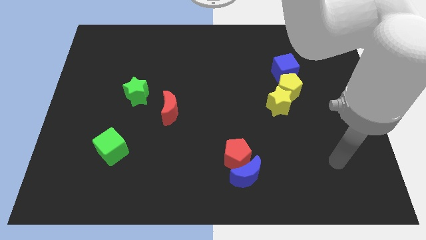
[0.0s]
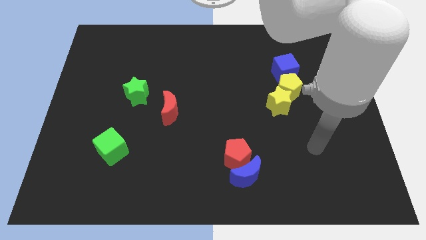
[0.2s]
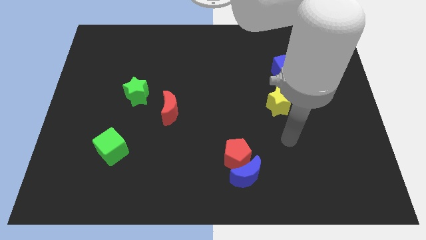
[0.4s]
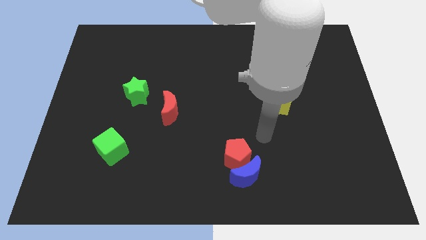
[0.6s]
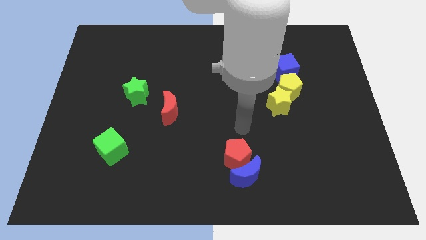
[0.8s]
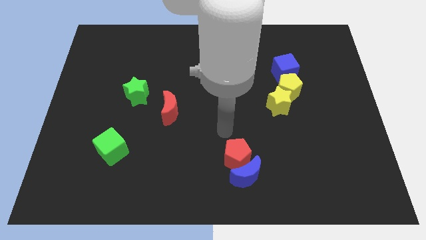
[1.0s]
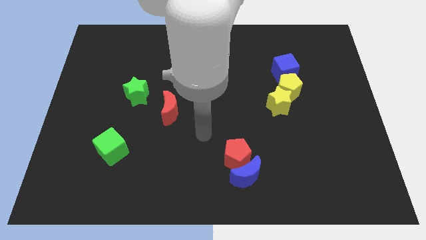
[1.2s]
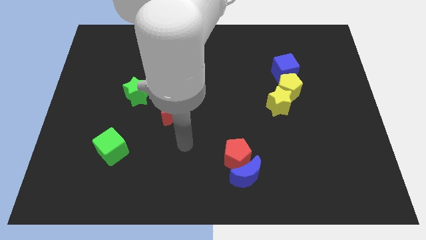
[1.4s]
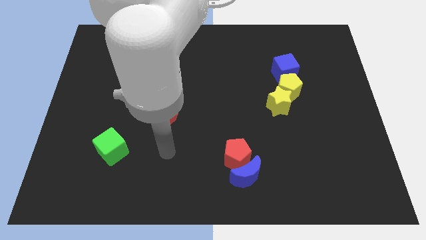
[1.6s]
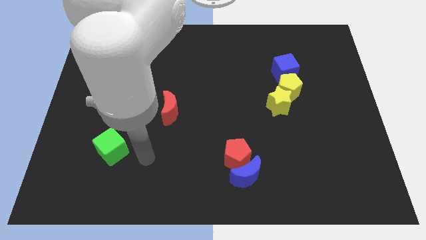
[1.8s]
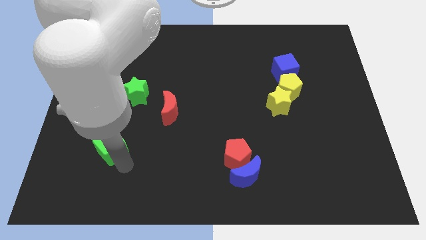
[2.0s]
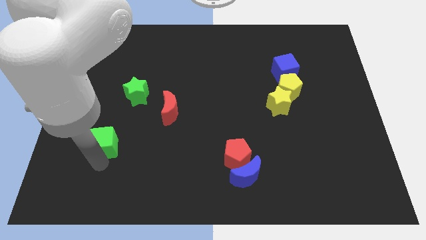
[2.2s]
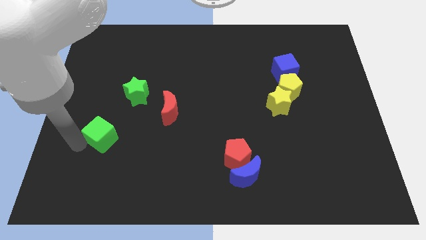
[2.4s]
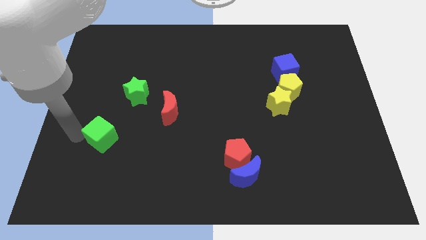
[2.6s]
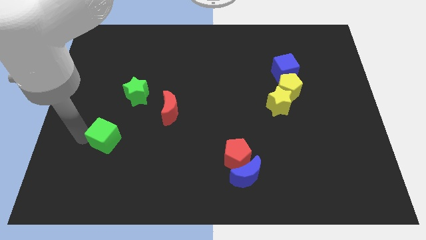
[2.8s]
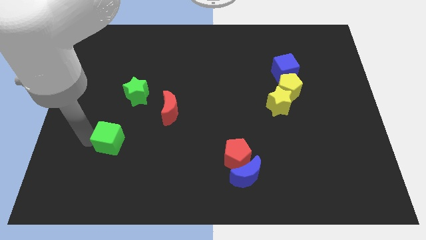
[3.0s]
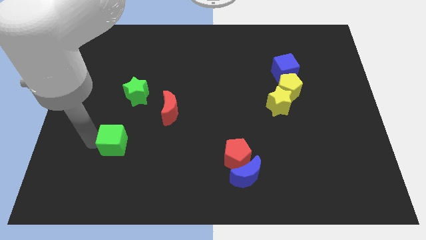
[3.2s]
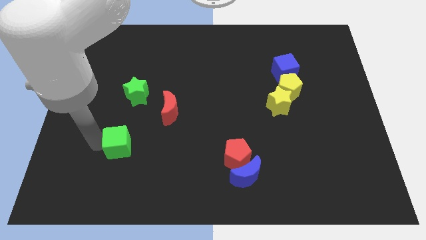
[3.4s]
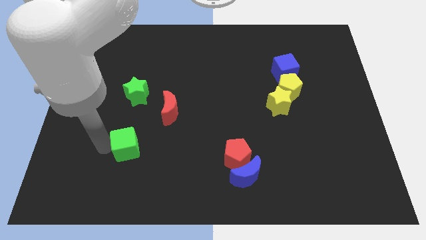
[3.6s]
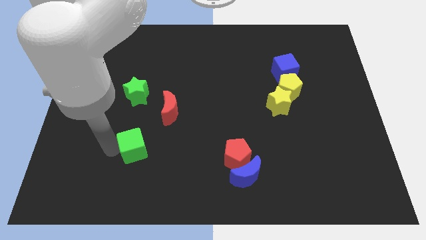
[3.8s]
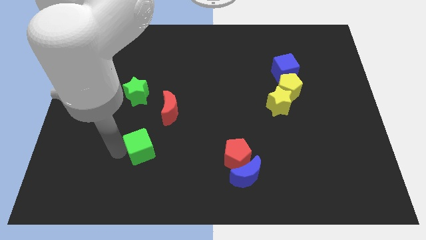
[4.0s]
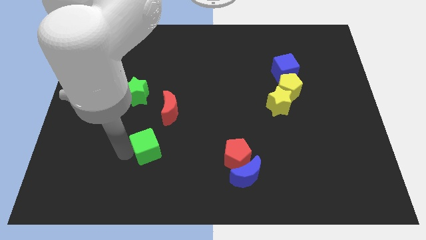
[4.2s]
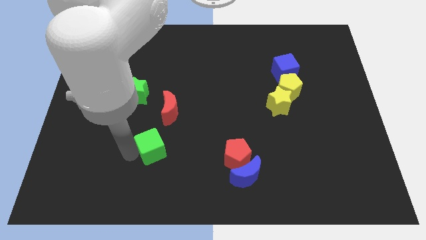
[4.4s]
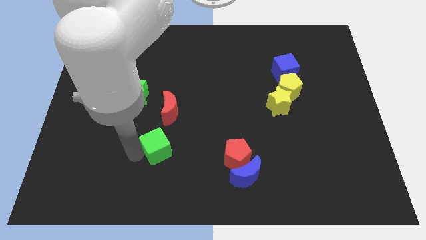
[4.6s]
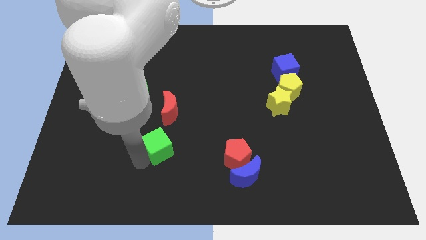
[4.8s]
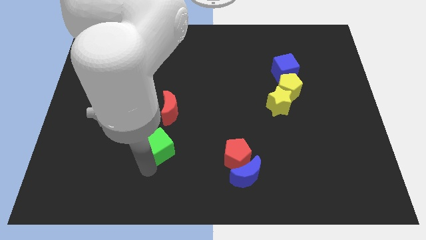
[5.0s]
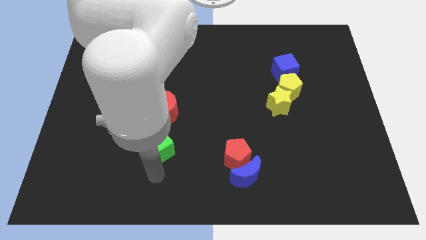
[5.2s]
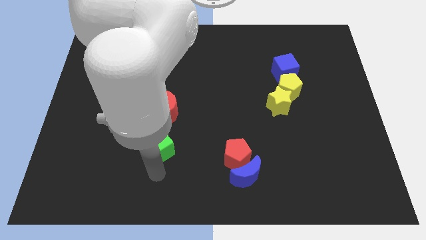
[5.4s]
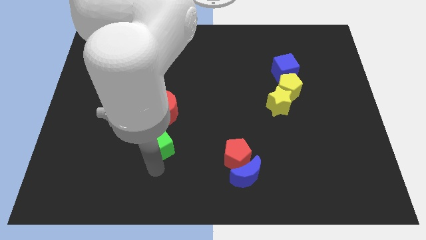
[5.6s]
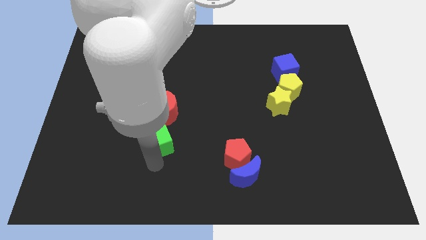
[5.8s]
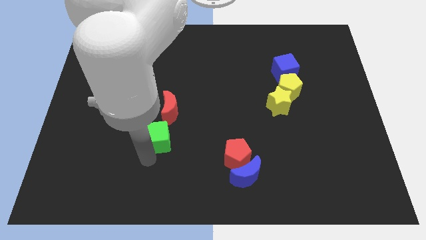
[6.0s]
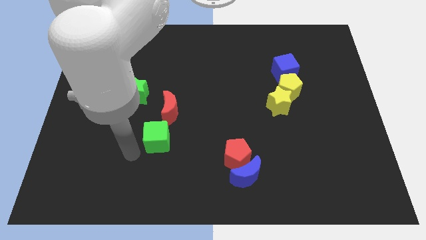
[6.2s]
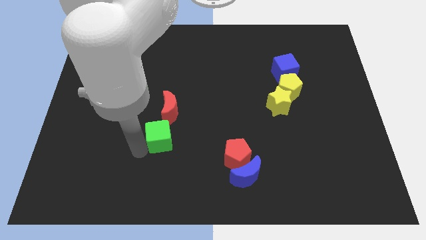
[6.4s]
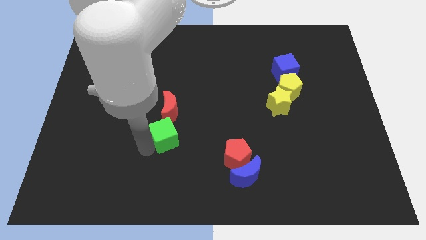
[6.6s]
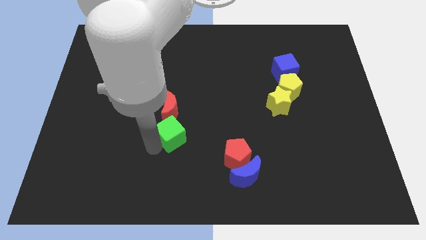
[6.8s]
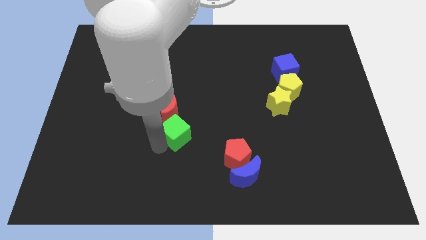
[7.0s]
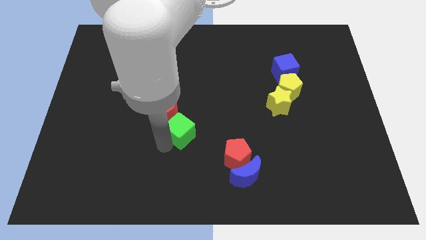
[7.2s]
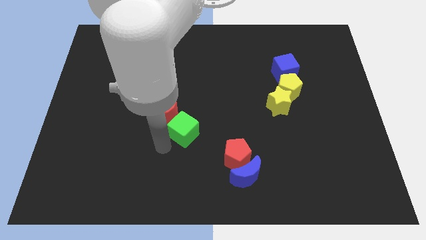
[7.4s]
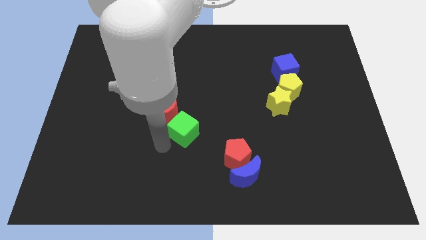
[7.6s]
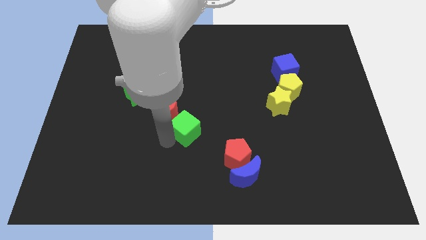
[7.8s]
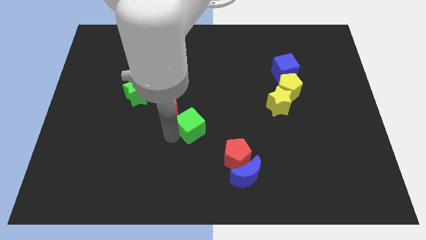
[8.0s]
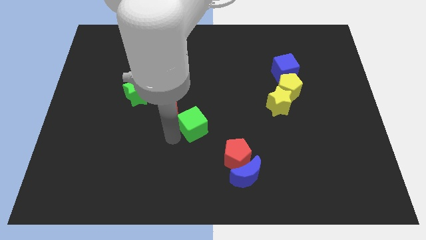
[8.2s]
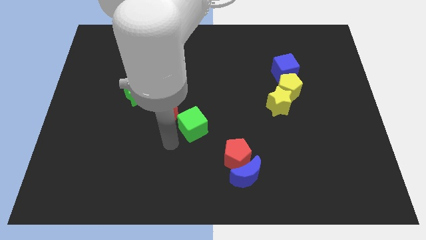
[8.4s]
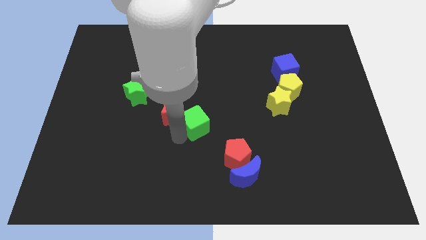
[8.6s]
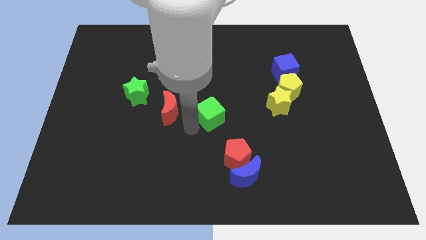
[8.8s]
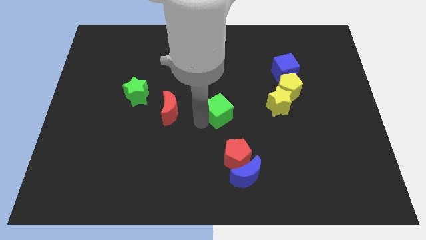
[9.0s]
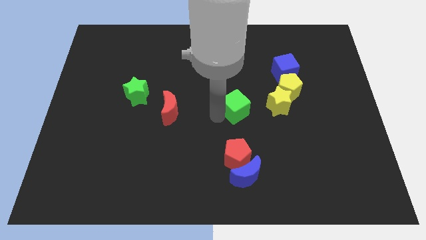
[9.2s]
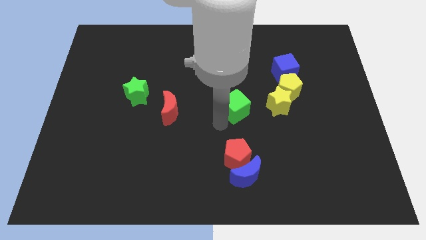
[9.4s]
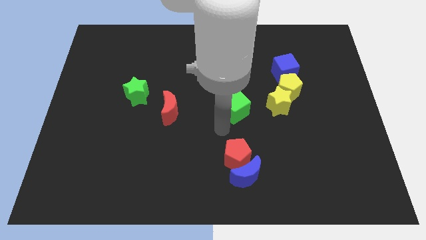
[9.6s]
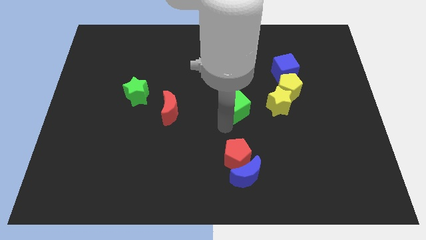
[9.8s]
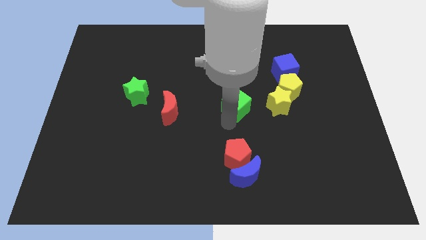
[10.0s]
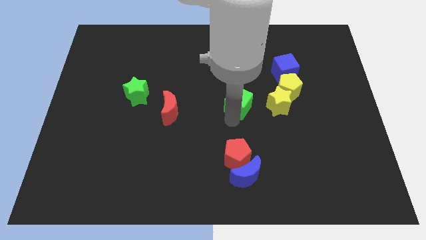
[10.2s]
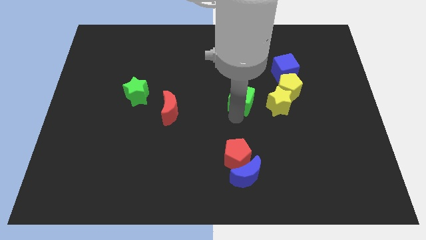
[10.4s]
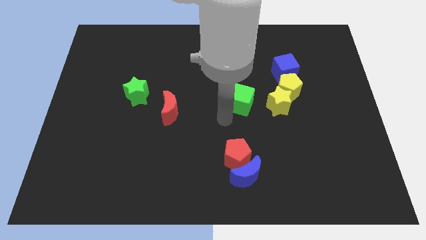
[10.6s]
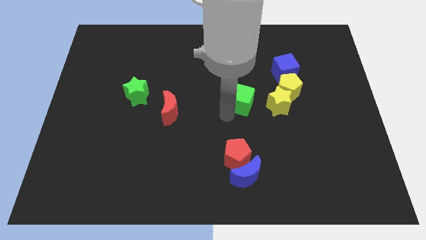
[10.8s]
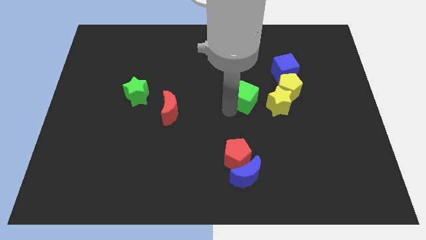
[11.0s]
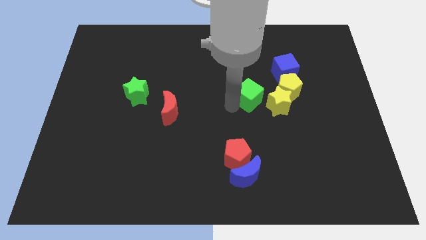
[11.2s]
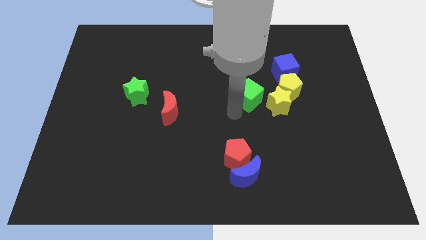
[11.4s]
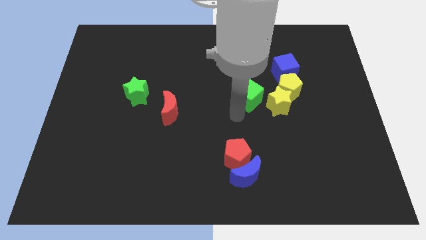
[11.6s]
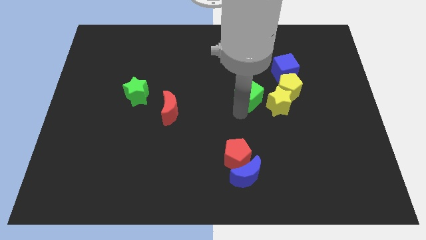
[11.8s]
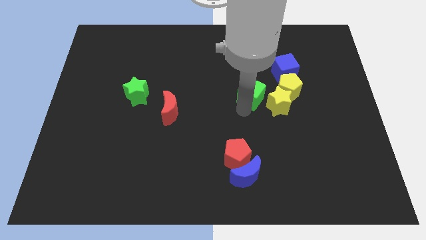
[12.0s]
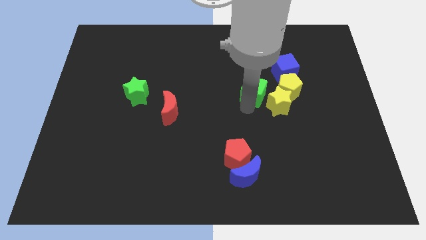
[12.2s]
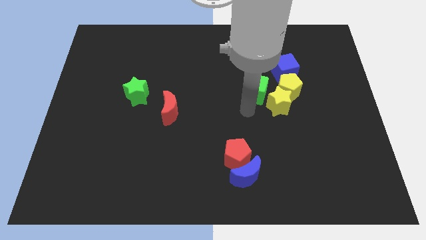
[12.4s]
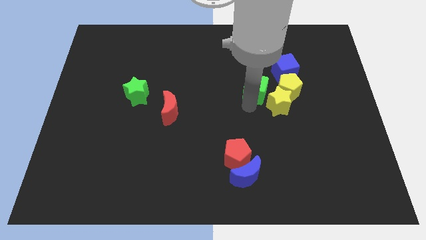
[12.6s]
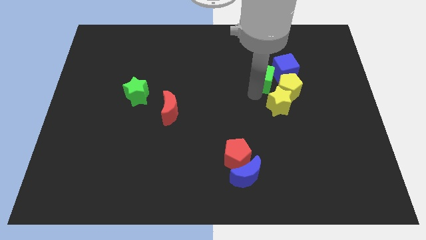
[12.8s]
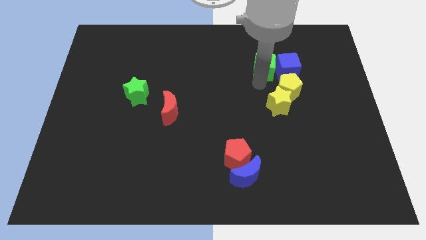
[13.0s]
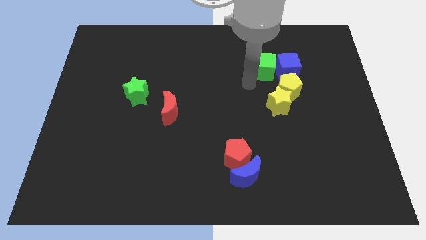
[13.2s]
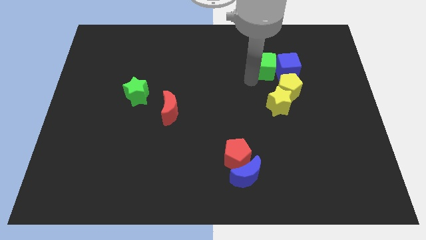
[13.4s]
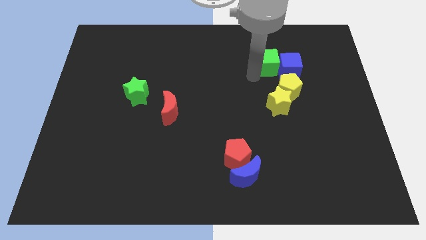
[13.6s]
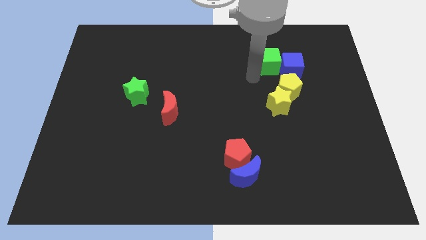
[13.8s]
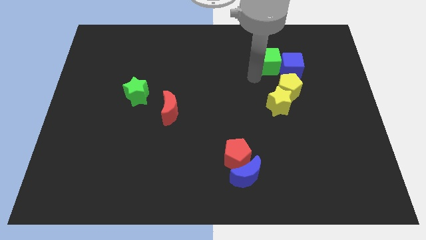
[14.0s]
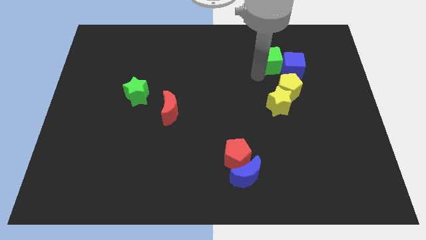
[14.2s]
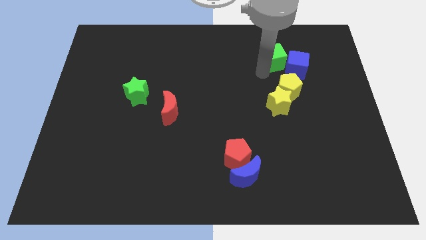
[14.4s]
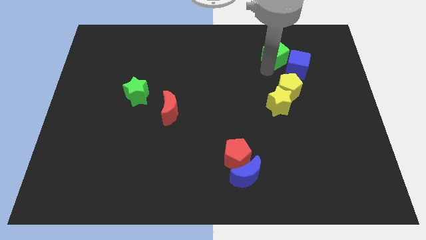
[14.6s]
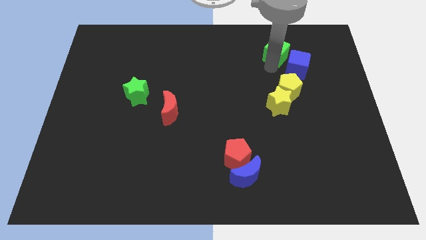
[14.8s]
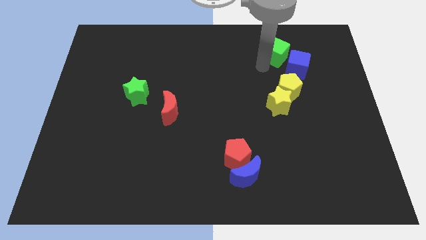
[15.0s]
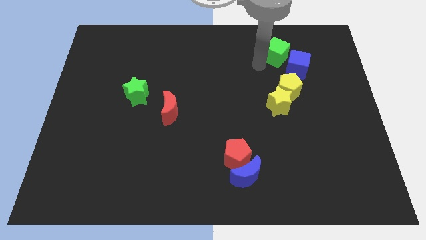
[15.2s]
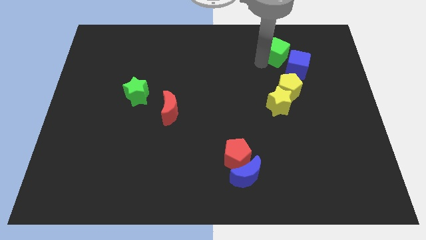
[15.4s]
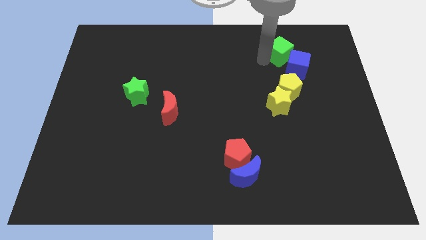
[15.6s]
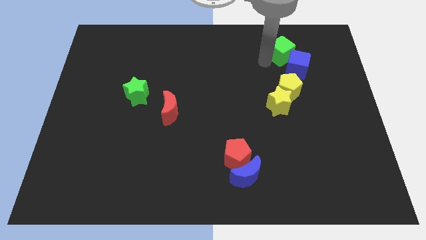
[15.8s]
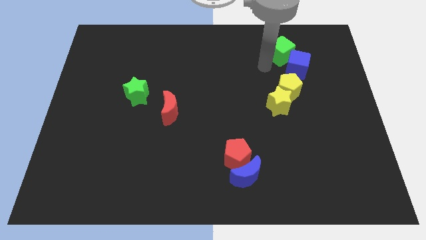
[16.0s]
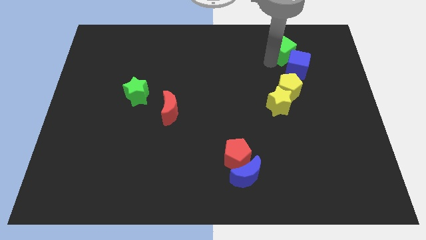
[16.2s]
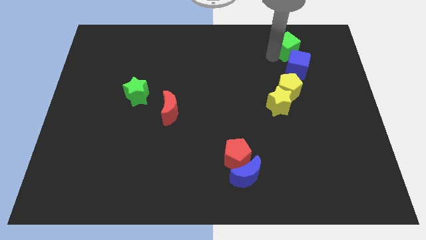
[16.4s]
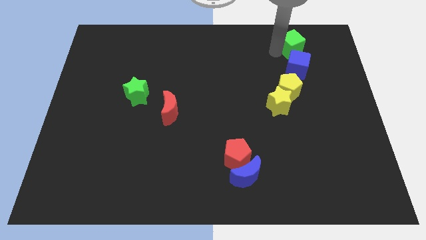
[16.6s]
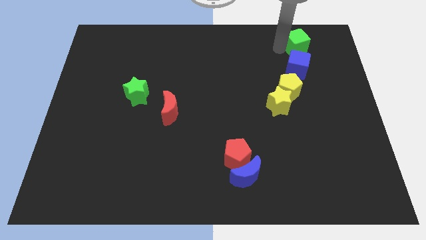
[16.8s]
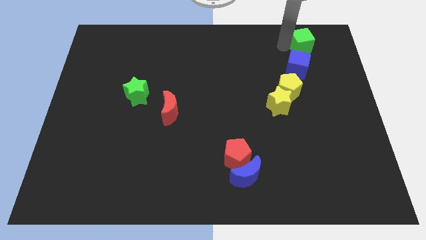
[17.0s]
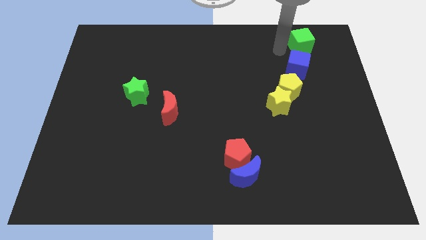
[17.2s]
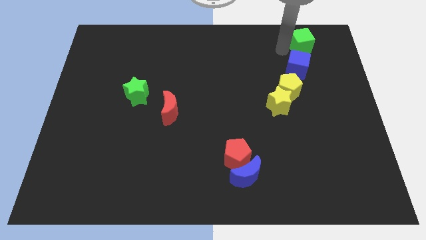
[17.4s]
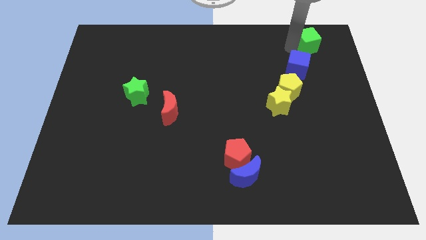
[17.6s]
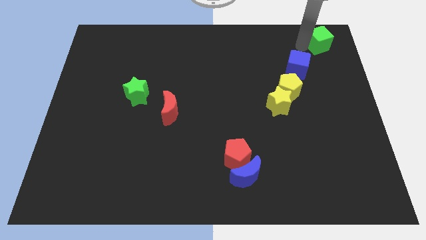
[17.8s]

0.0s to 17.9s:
push the green cube to the top right corner
